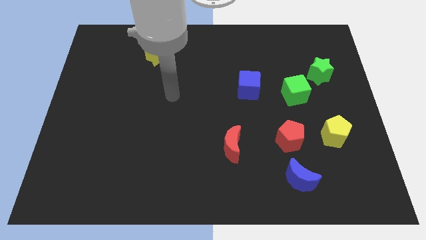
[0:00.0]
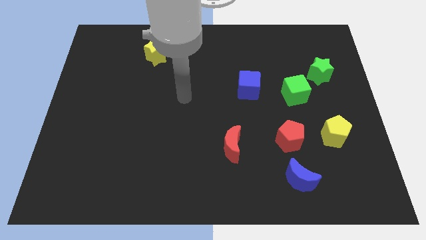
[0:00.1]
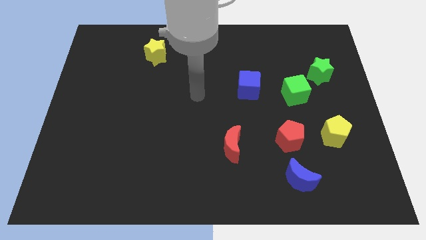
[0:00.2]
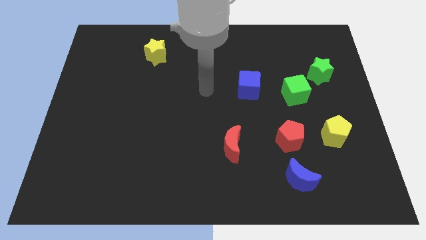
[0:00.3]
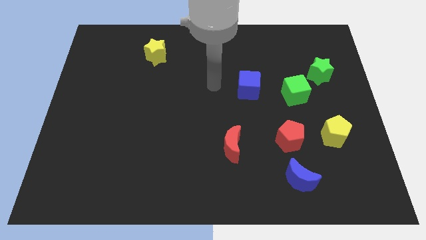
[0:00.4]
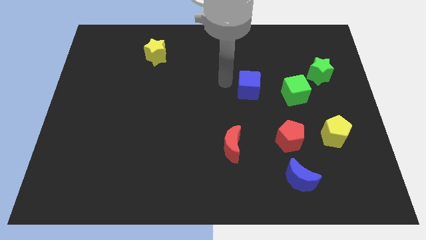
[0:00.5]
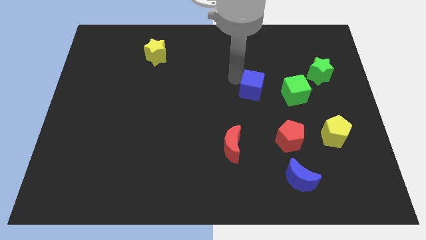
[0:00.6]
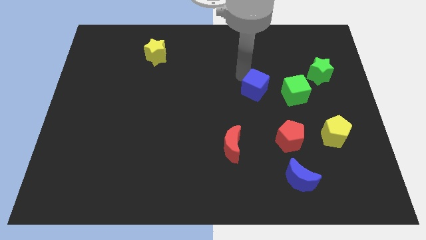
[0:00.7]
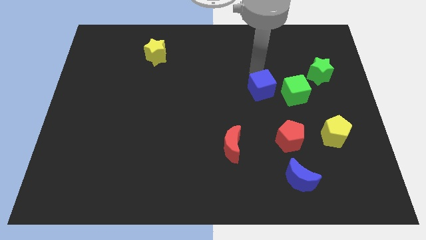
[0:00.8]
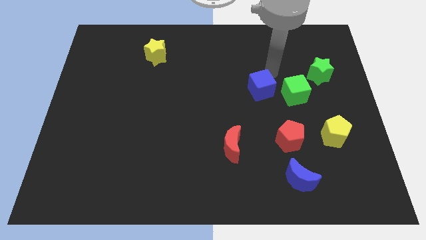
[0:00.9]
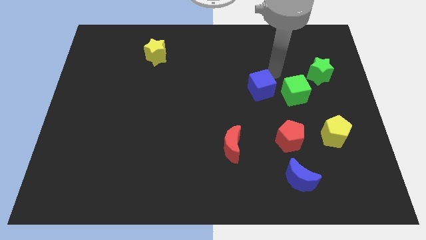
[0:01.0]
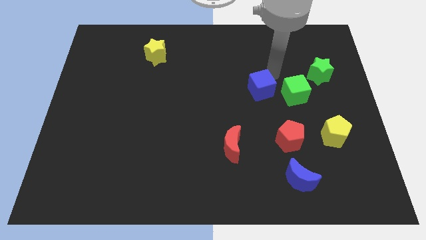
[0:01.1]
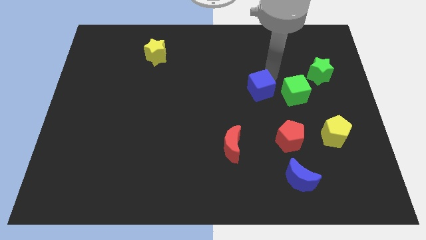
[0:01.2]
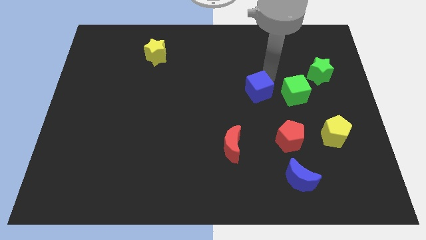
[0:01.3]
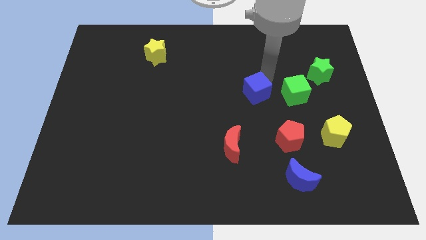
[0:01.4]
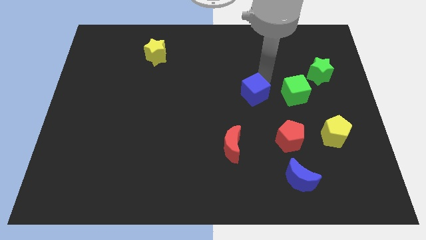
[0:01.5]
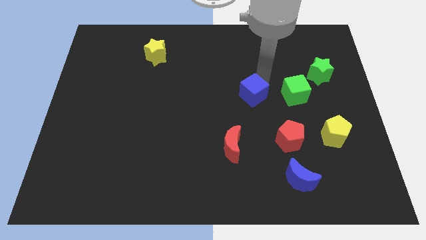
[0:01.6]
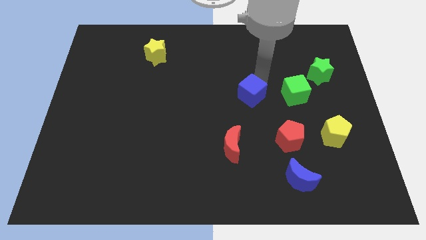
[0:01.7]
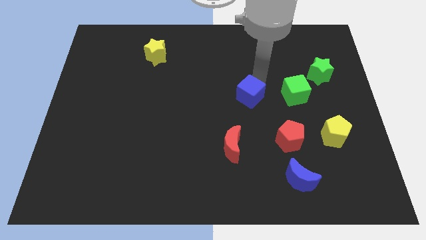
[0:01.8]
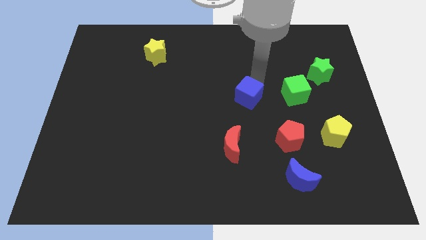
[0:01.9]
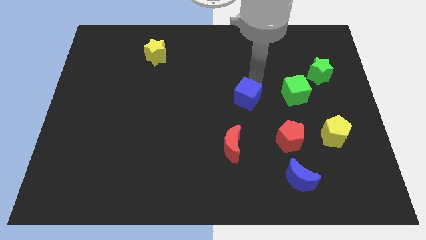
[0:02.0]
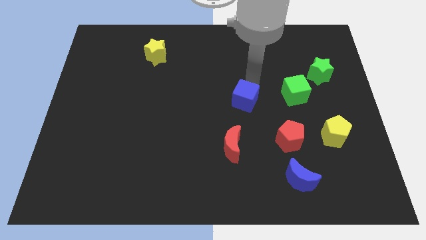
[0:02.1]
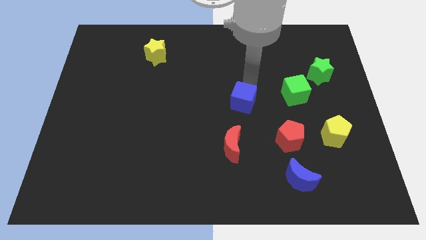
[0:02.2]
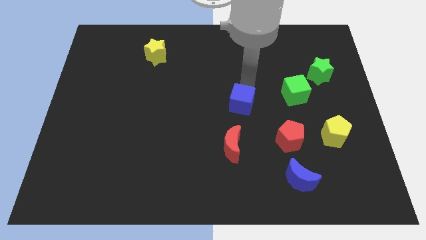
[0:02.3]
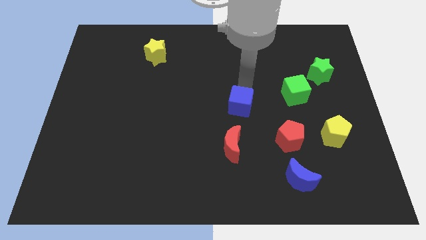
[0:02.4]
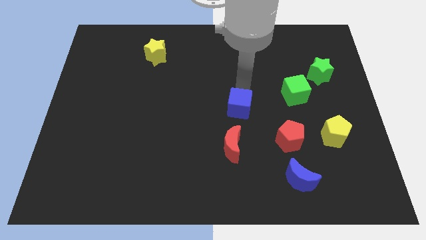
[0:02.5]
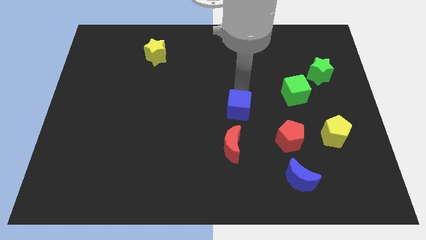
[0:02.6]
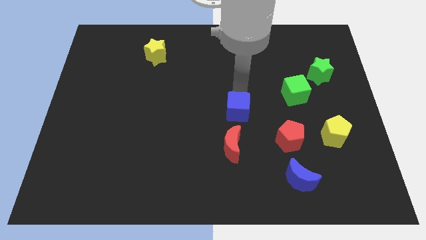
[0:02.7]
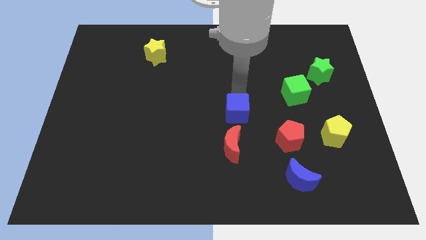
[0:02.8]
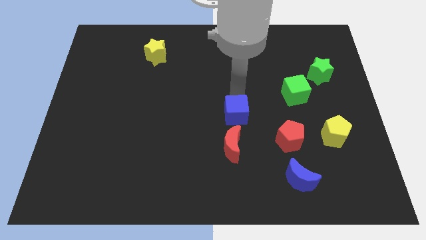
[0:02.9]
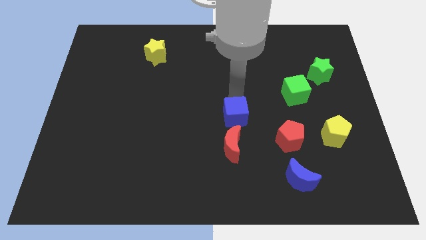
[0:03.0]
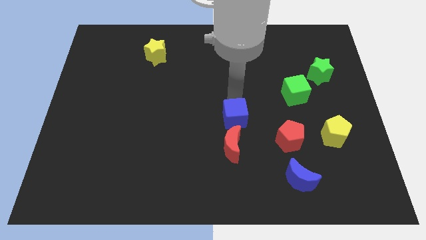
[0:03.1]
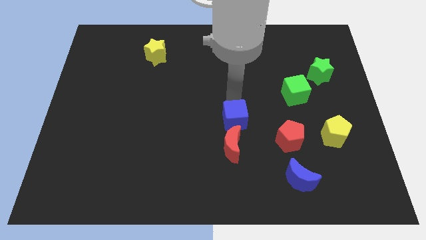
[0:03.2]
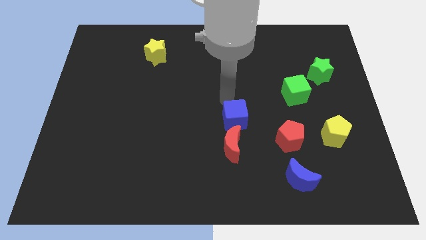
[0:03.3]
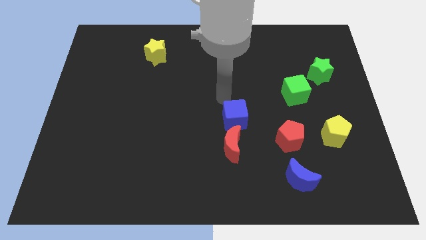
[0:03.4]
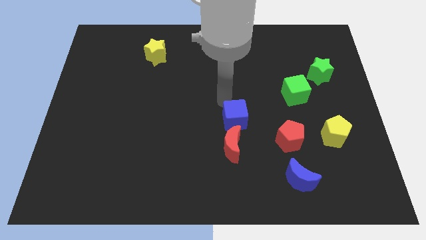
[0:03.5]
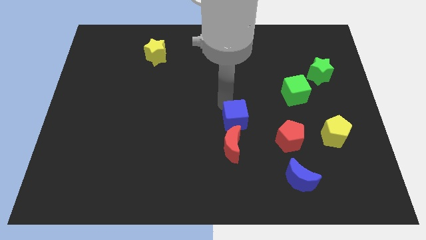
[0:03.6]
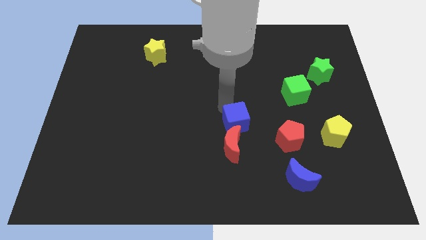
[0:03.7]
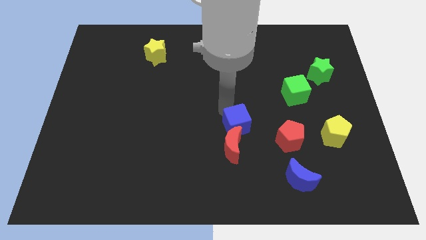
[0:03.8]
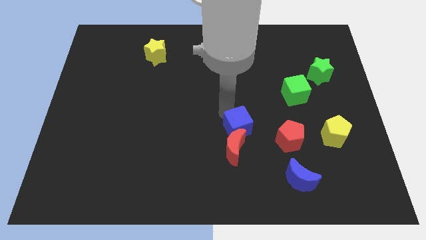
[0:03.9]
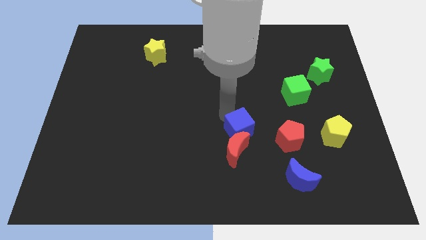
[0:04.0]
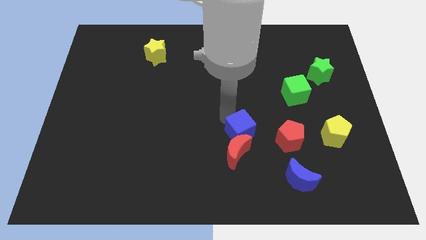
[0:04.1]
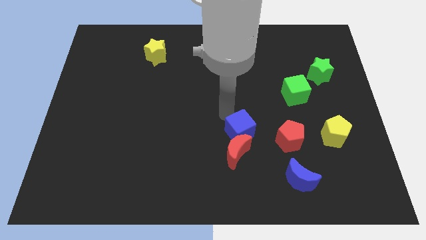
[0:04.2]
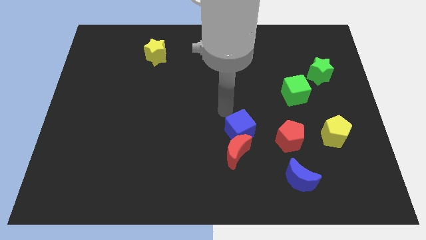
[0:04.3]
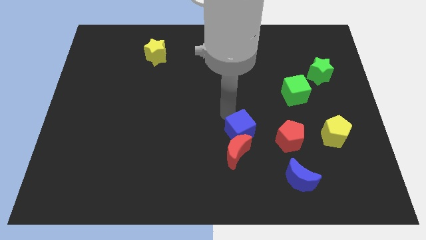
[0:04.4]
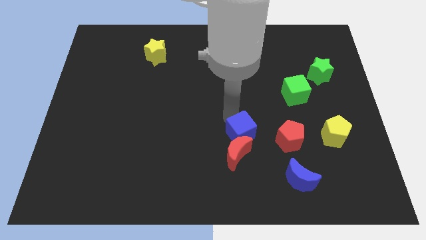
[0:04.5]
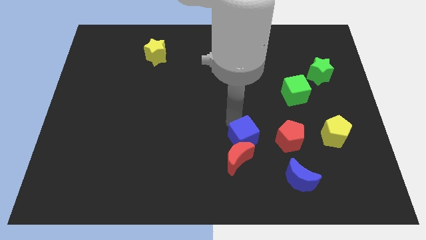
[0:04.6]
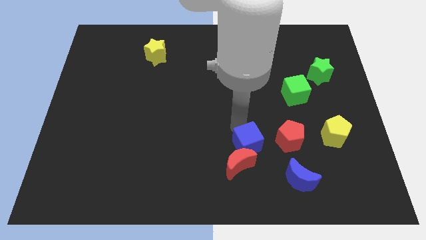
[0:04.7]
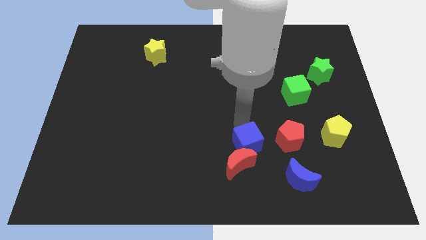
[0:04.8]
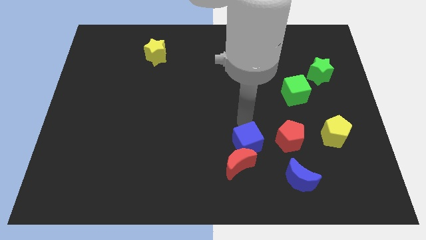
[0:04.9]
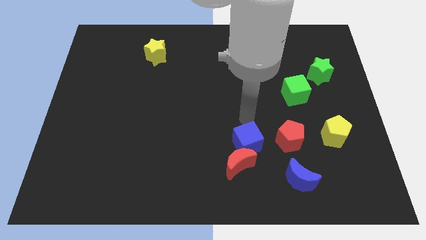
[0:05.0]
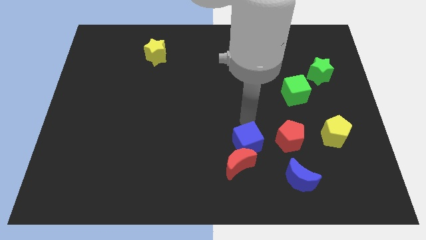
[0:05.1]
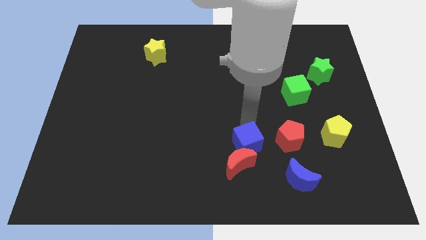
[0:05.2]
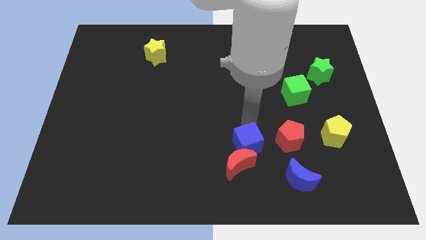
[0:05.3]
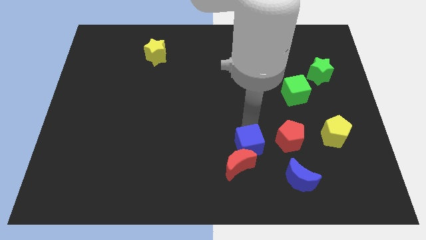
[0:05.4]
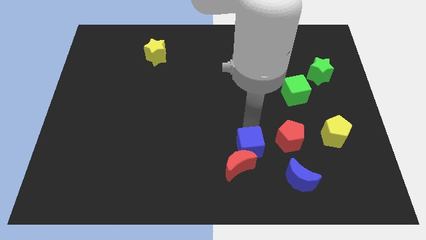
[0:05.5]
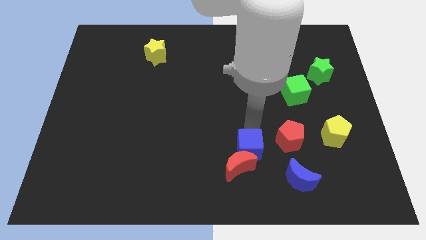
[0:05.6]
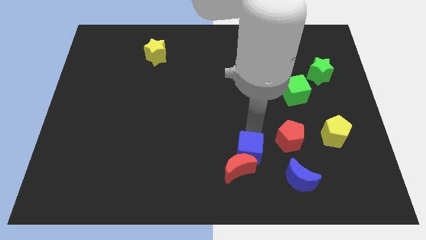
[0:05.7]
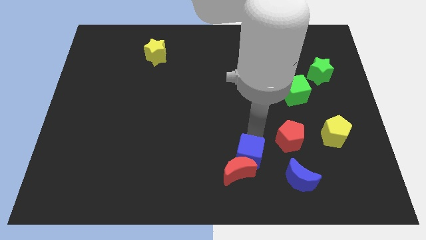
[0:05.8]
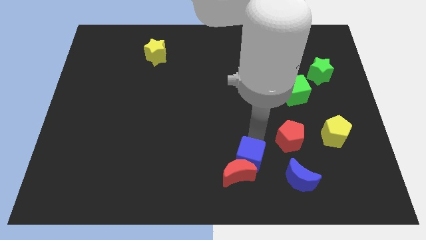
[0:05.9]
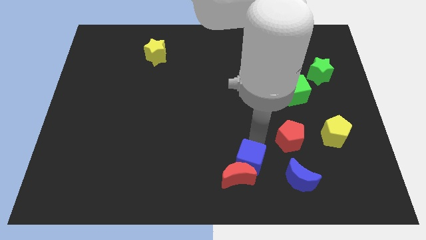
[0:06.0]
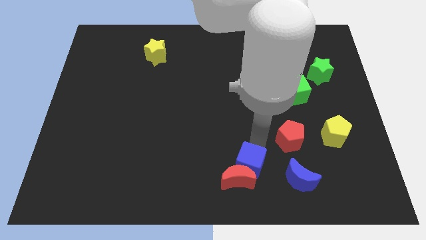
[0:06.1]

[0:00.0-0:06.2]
slide the blue cube to the bottom
